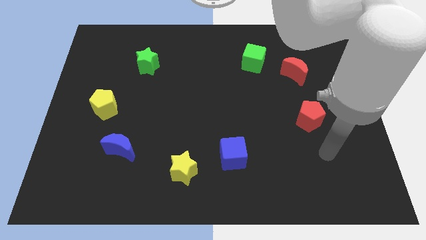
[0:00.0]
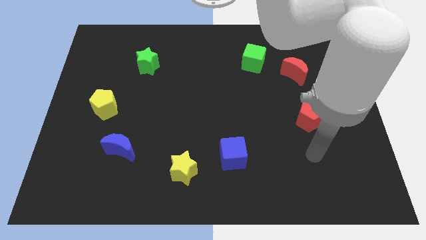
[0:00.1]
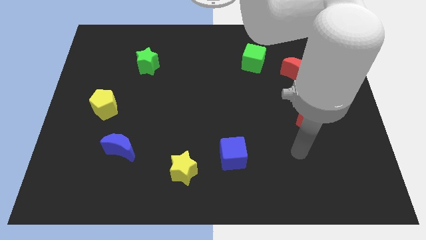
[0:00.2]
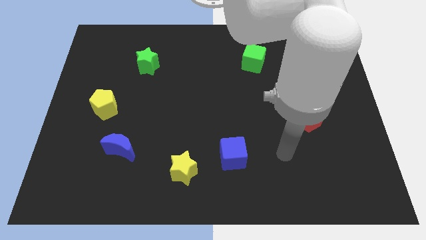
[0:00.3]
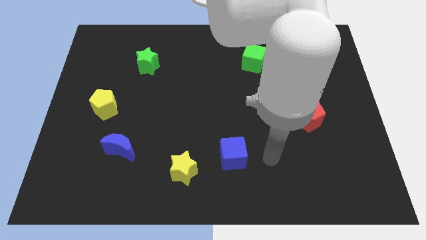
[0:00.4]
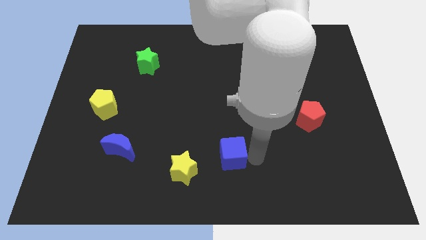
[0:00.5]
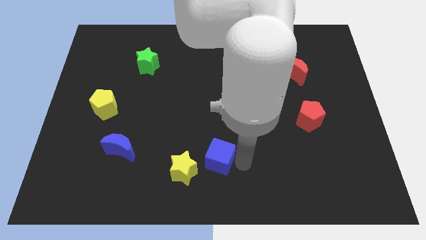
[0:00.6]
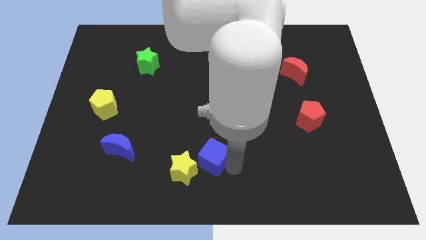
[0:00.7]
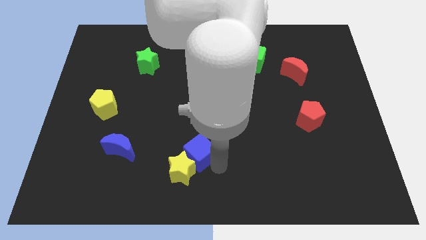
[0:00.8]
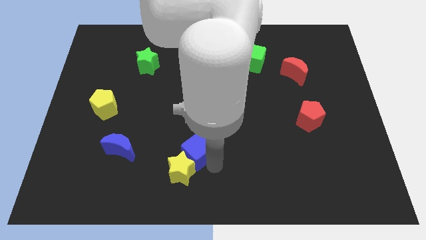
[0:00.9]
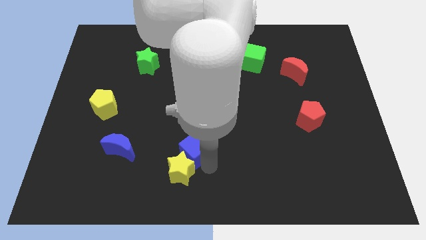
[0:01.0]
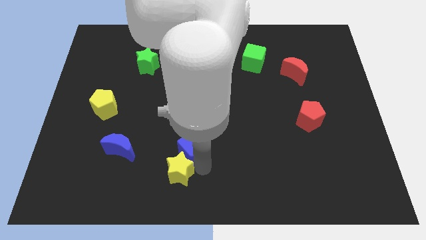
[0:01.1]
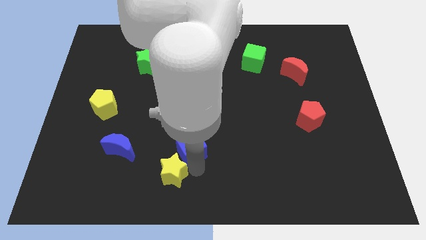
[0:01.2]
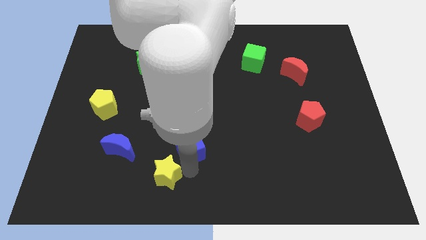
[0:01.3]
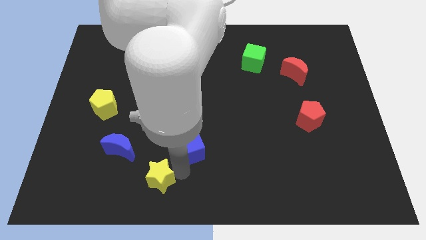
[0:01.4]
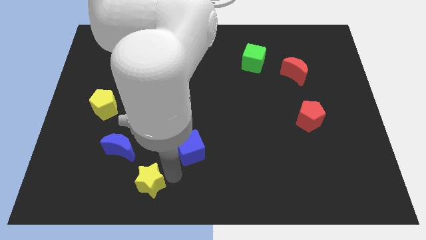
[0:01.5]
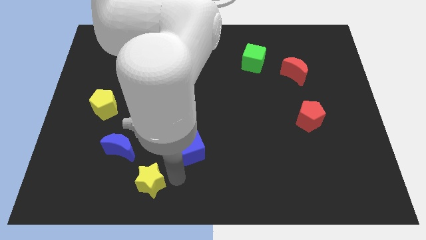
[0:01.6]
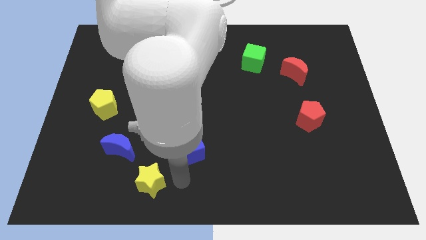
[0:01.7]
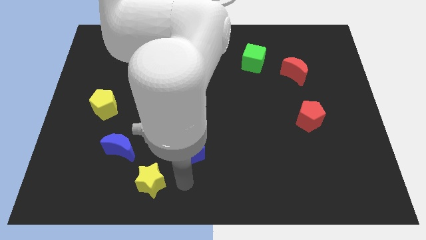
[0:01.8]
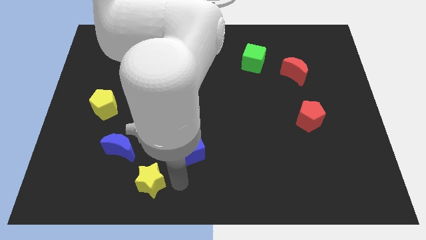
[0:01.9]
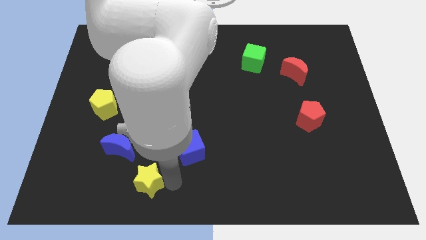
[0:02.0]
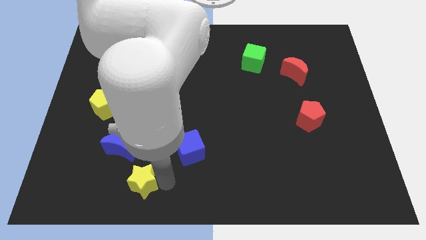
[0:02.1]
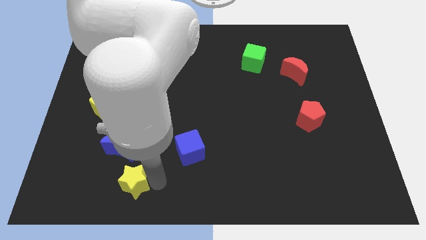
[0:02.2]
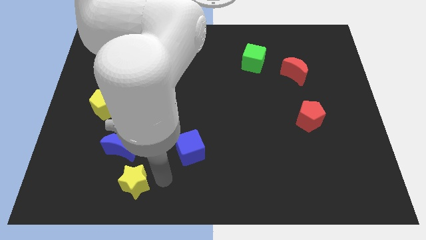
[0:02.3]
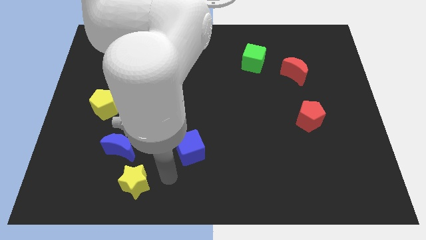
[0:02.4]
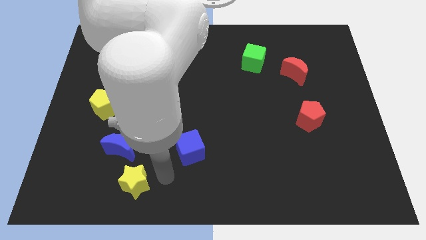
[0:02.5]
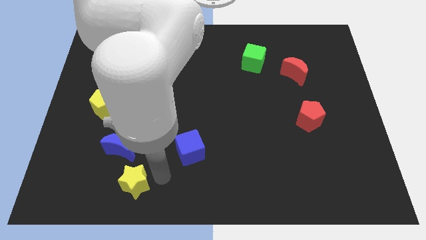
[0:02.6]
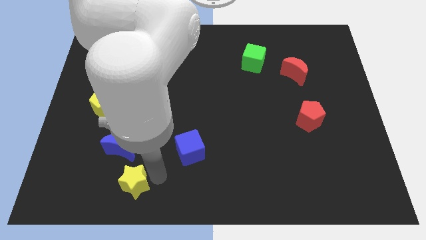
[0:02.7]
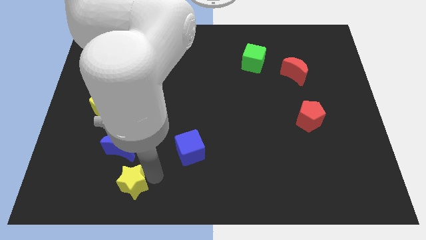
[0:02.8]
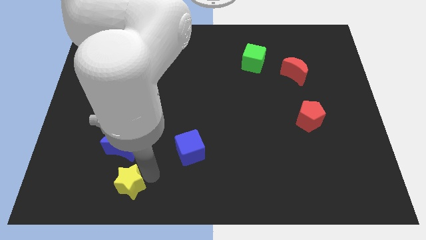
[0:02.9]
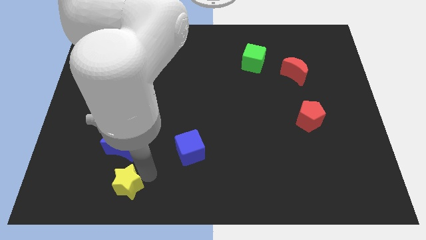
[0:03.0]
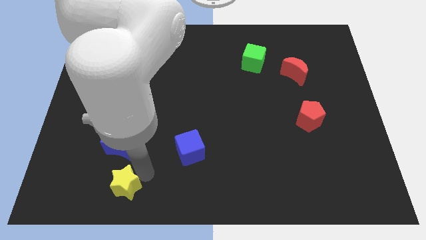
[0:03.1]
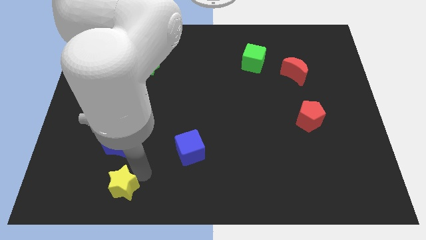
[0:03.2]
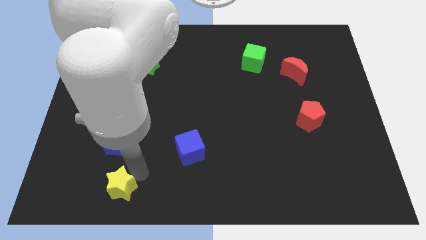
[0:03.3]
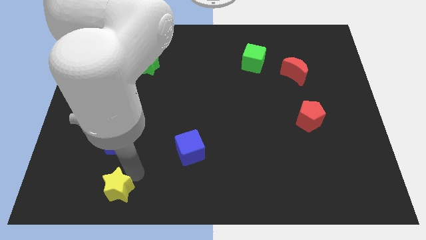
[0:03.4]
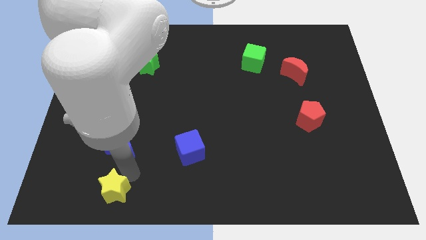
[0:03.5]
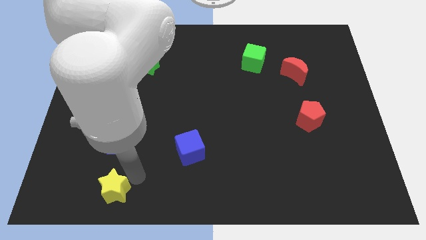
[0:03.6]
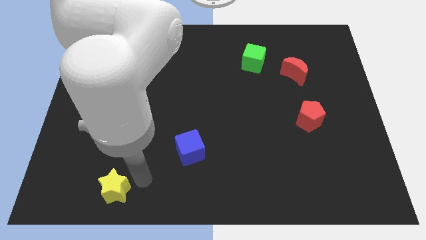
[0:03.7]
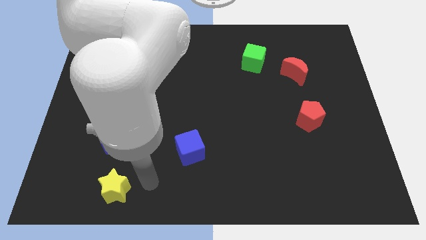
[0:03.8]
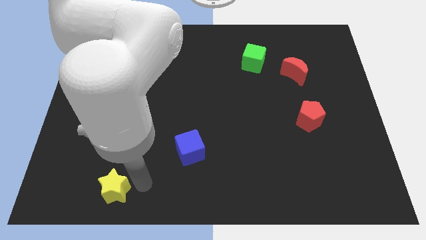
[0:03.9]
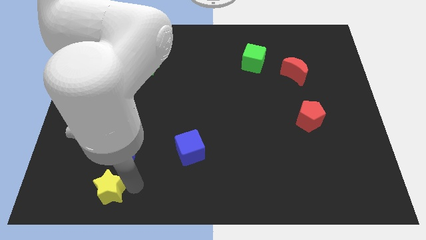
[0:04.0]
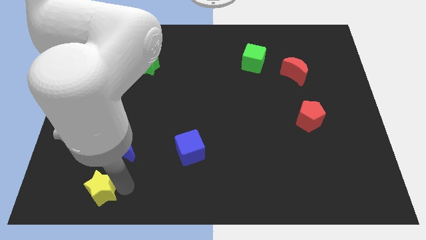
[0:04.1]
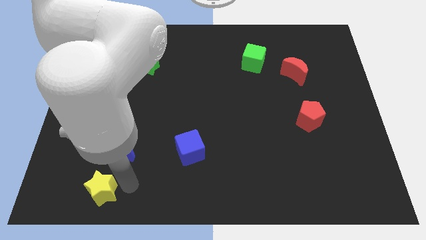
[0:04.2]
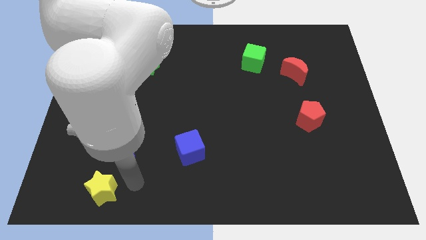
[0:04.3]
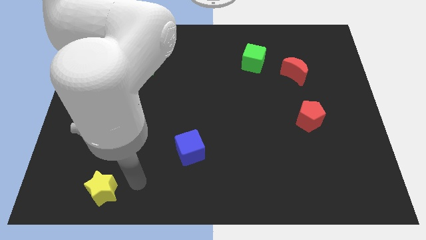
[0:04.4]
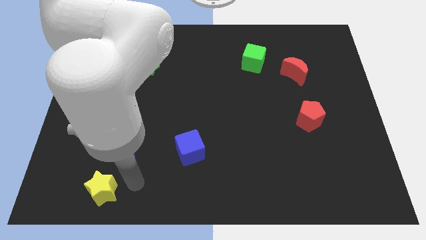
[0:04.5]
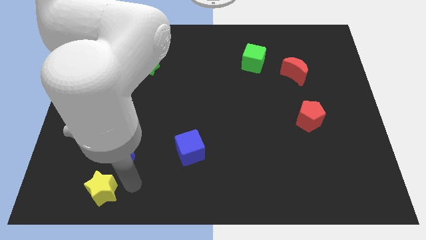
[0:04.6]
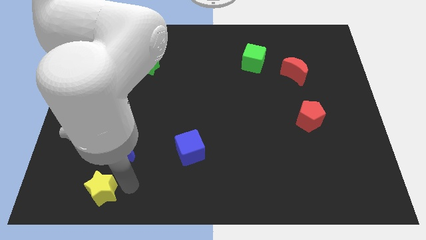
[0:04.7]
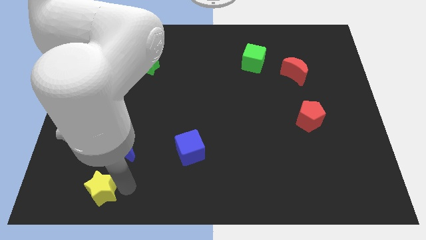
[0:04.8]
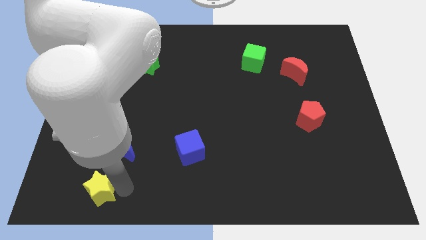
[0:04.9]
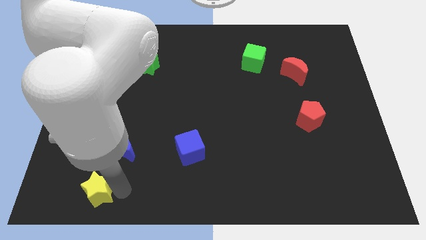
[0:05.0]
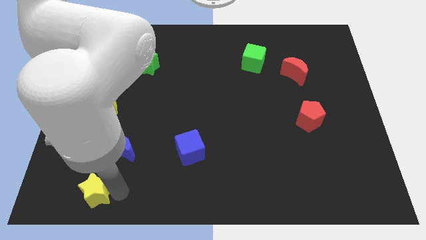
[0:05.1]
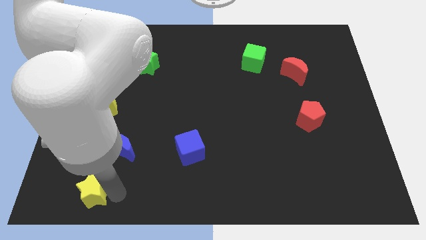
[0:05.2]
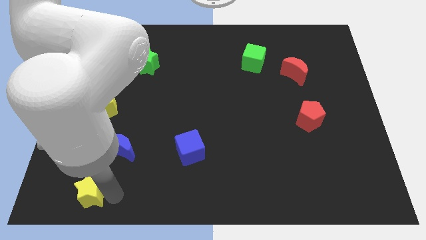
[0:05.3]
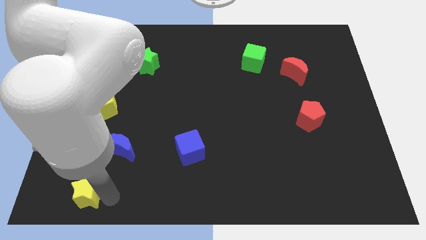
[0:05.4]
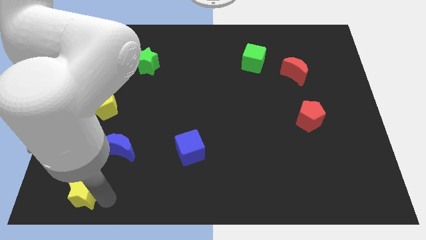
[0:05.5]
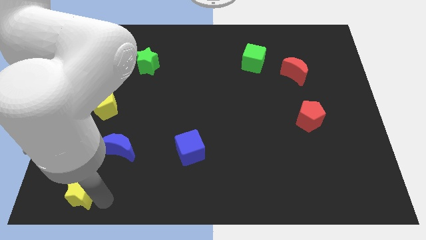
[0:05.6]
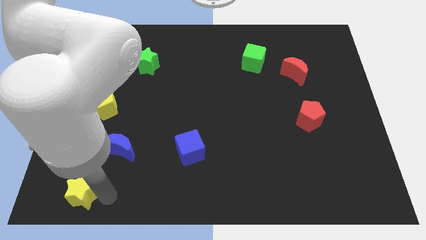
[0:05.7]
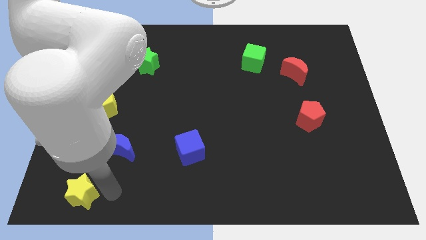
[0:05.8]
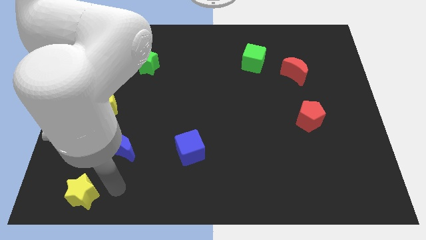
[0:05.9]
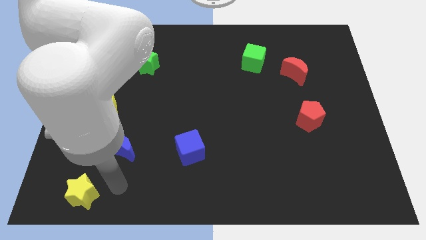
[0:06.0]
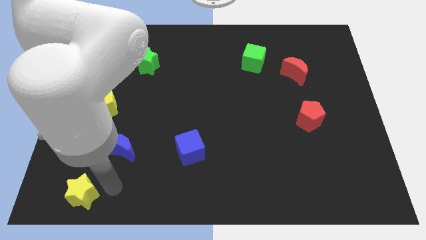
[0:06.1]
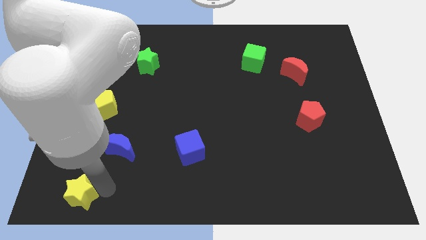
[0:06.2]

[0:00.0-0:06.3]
push the yellow star to the lower left corner
